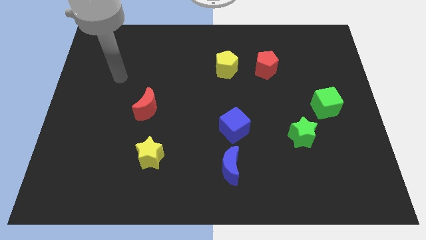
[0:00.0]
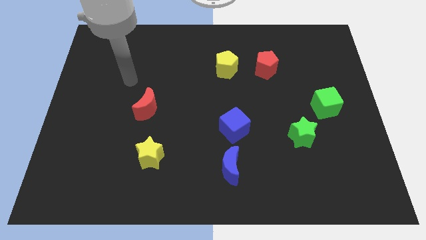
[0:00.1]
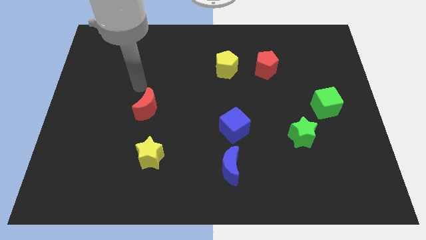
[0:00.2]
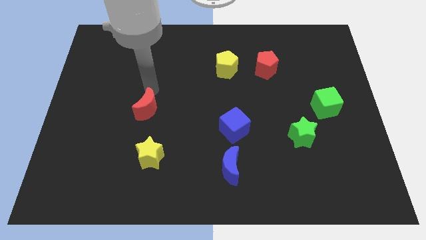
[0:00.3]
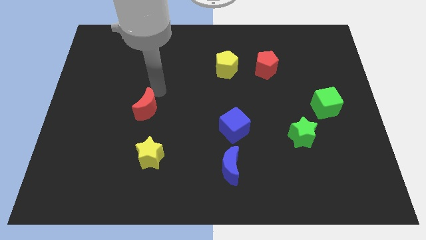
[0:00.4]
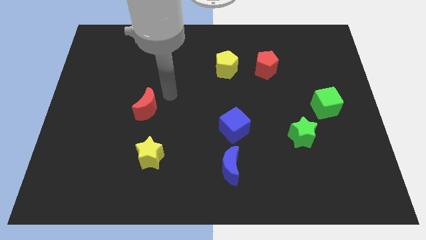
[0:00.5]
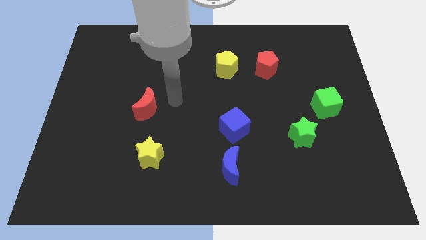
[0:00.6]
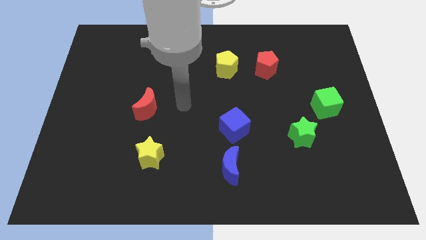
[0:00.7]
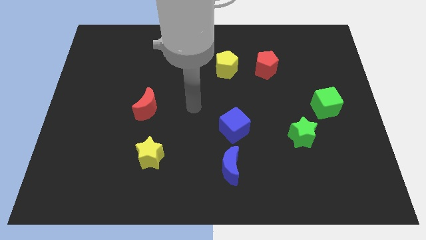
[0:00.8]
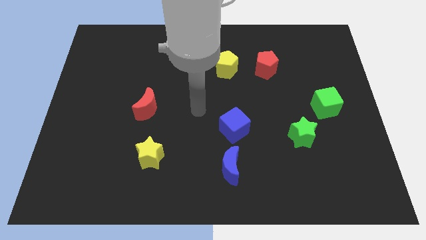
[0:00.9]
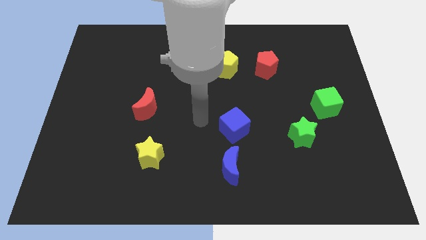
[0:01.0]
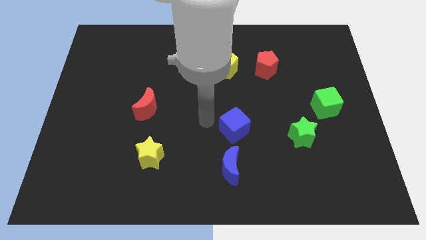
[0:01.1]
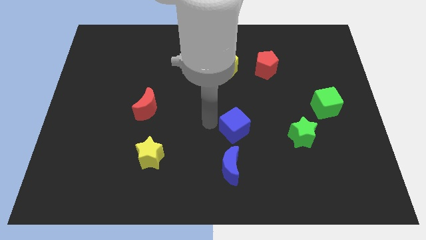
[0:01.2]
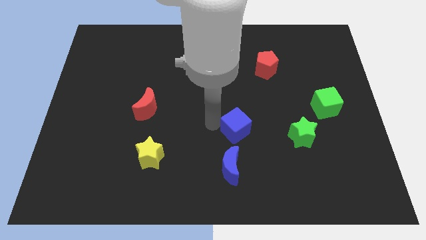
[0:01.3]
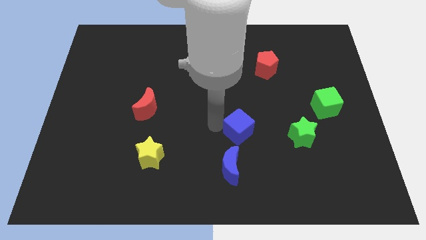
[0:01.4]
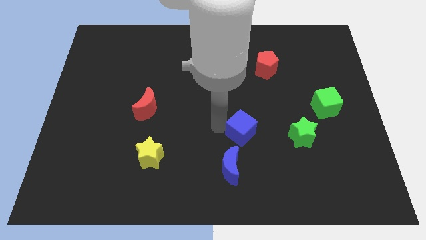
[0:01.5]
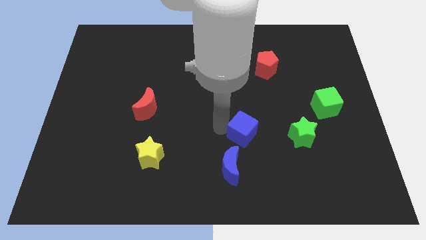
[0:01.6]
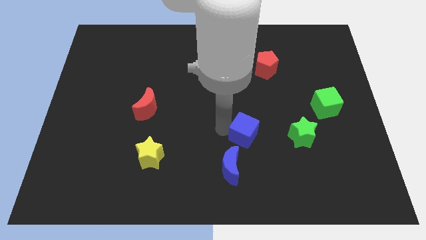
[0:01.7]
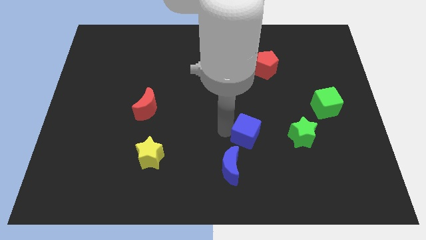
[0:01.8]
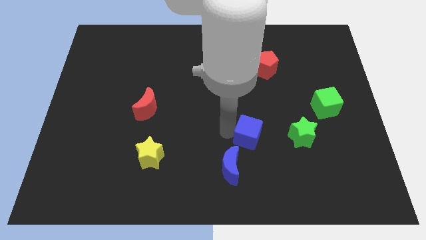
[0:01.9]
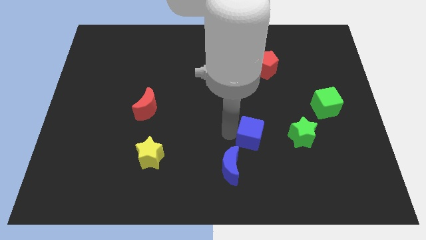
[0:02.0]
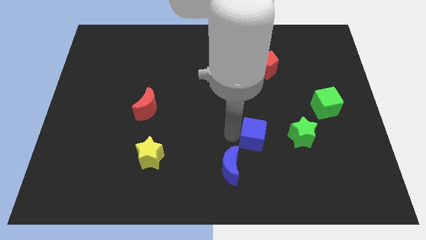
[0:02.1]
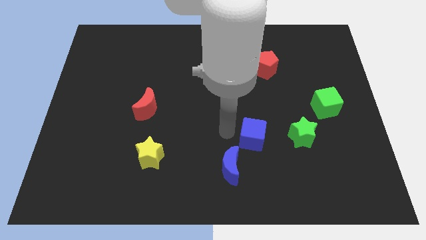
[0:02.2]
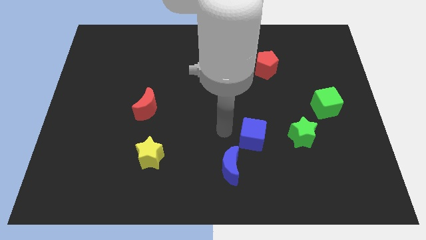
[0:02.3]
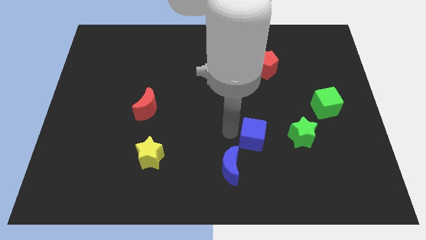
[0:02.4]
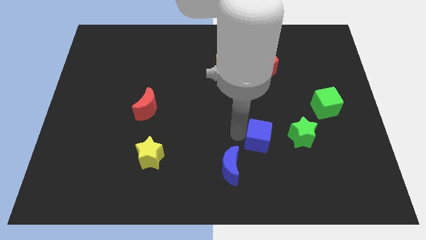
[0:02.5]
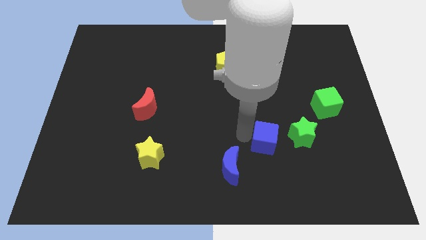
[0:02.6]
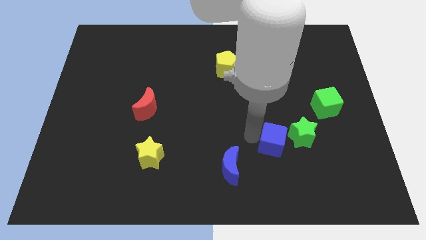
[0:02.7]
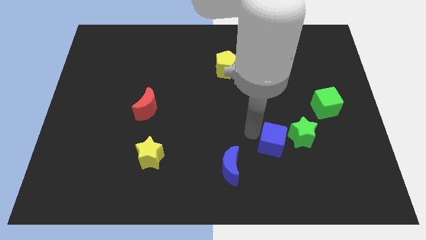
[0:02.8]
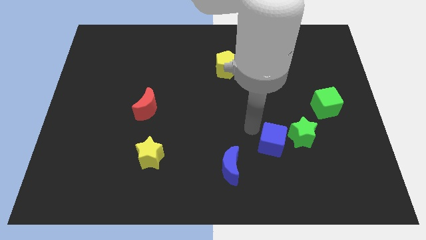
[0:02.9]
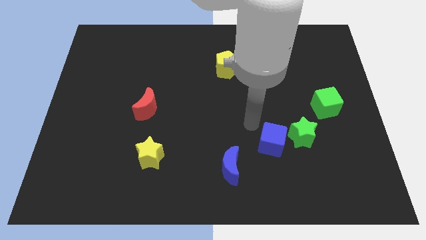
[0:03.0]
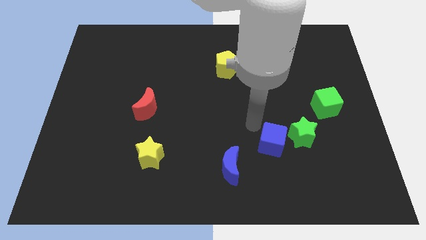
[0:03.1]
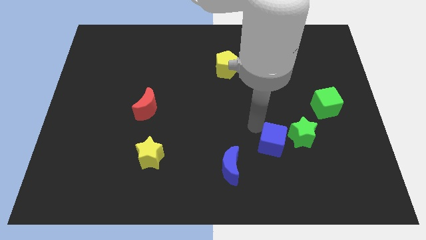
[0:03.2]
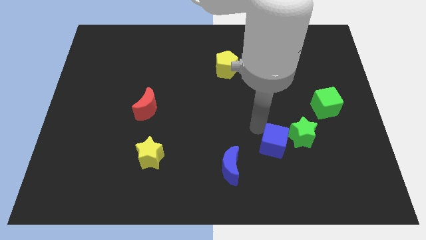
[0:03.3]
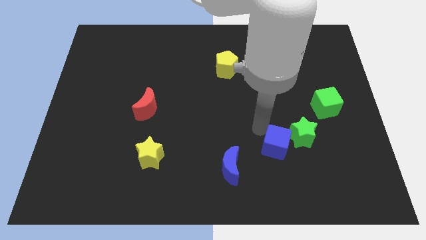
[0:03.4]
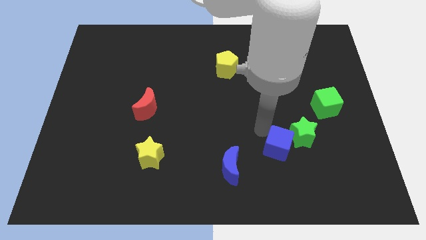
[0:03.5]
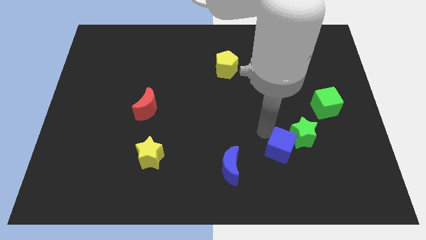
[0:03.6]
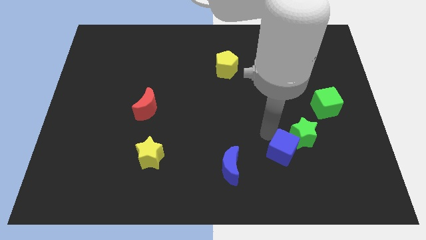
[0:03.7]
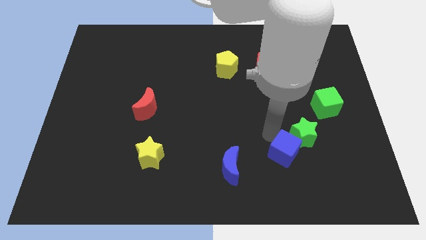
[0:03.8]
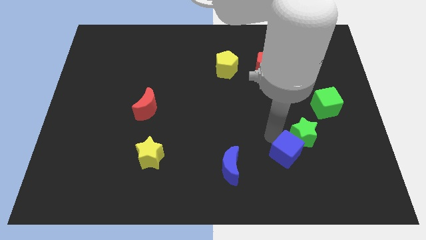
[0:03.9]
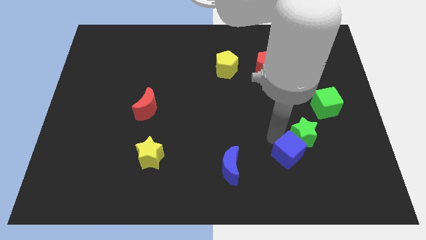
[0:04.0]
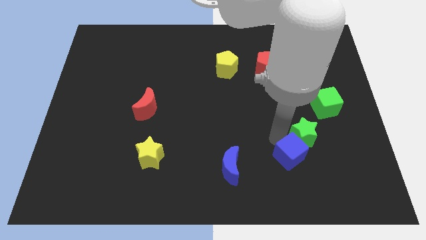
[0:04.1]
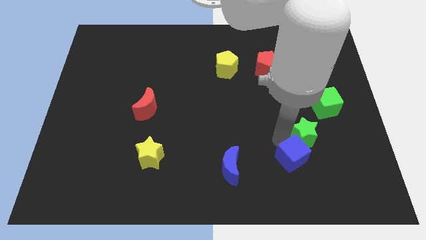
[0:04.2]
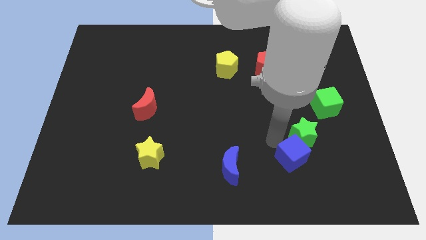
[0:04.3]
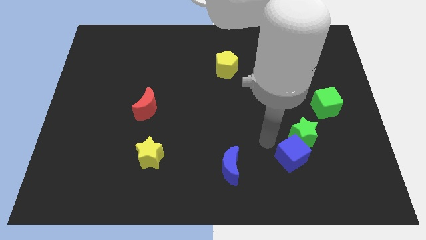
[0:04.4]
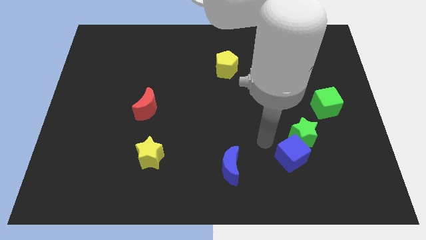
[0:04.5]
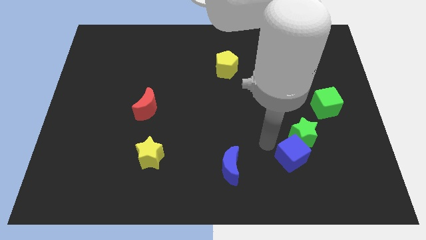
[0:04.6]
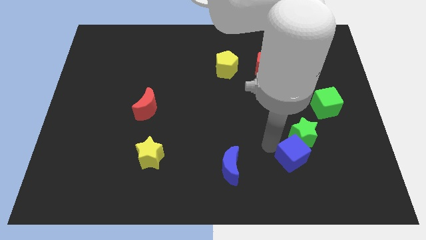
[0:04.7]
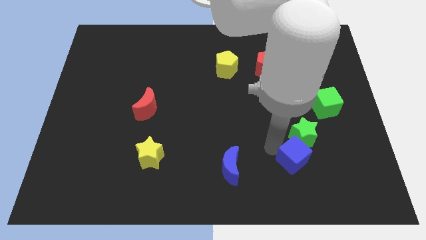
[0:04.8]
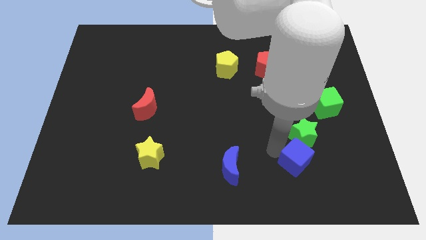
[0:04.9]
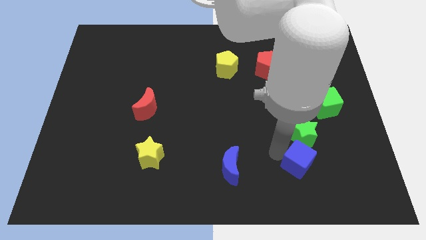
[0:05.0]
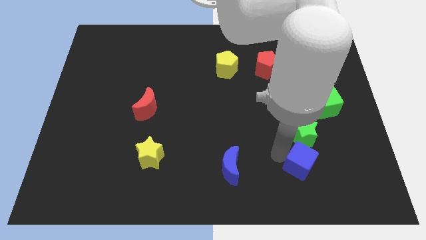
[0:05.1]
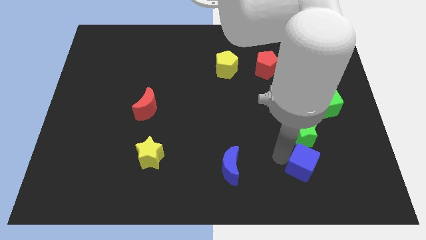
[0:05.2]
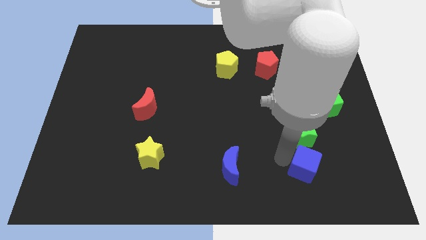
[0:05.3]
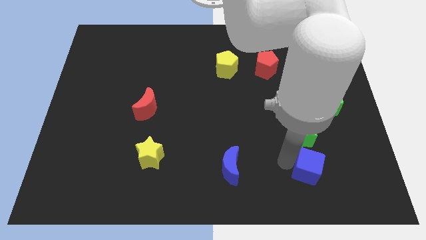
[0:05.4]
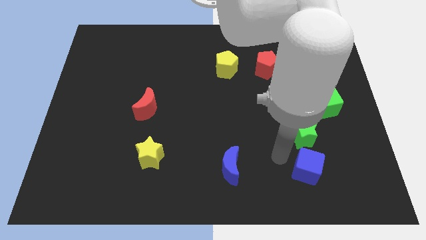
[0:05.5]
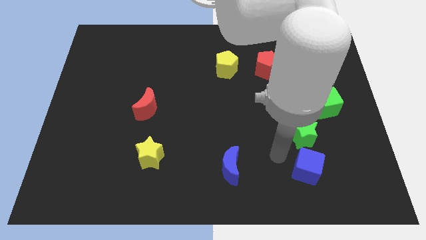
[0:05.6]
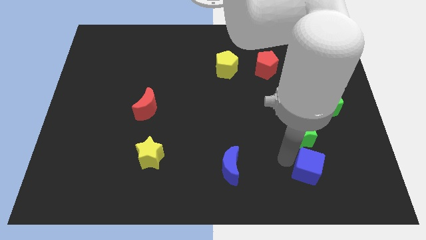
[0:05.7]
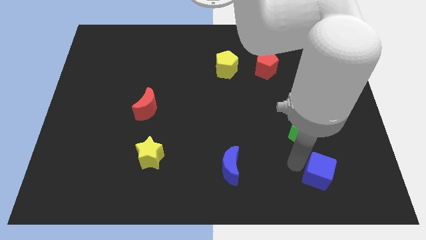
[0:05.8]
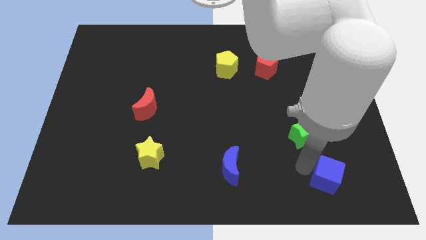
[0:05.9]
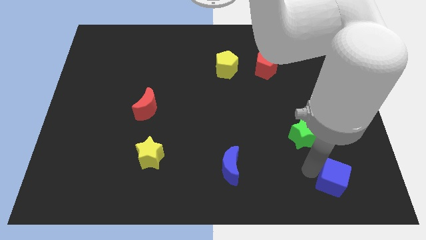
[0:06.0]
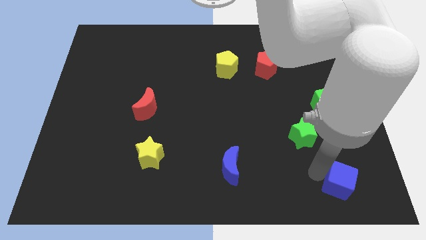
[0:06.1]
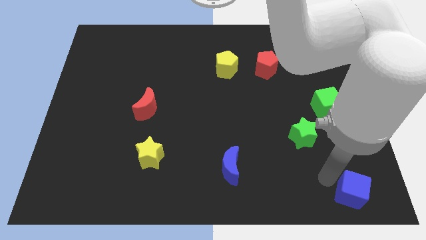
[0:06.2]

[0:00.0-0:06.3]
move the blue cube to the bottom right corner

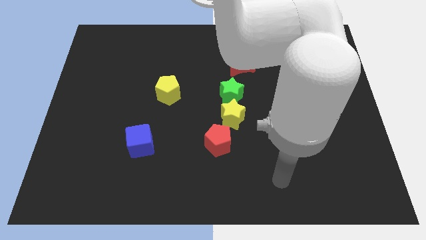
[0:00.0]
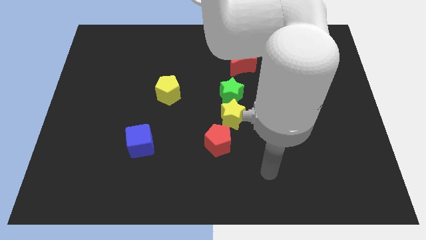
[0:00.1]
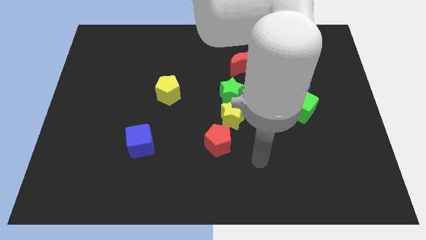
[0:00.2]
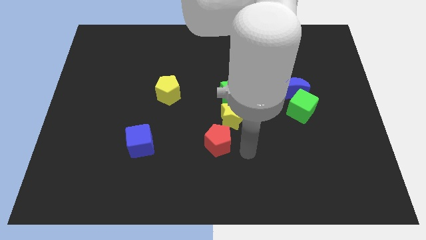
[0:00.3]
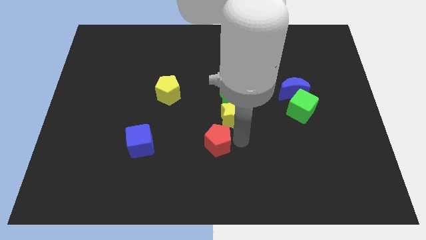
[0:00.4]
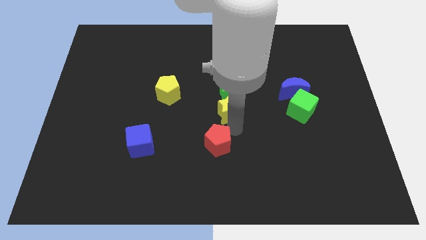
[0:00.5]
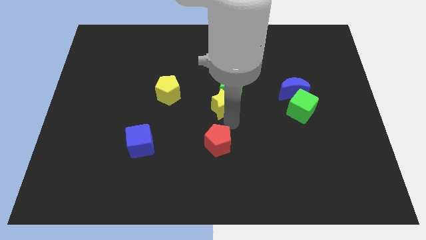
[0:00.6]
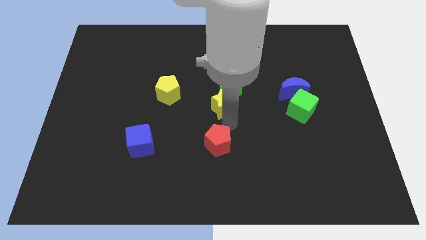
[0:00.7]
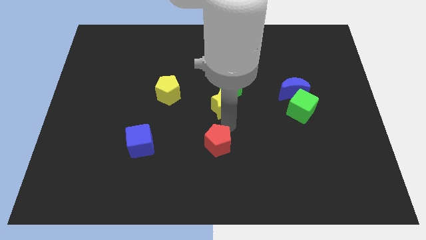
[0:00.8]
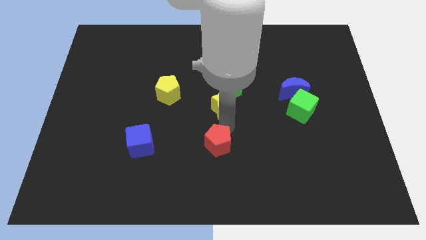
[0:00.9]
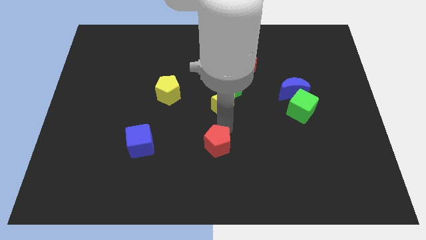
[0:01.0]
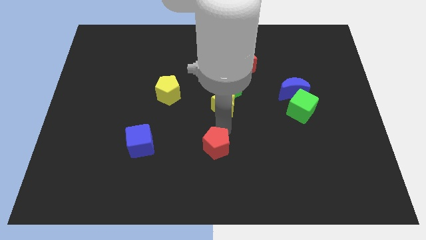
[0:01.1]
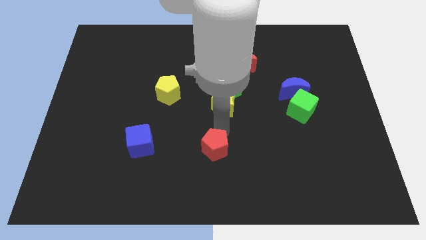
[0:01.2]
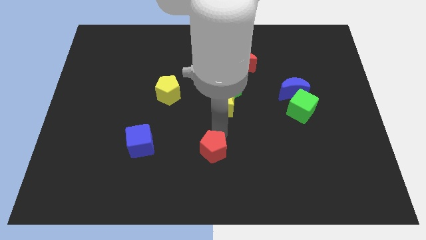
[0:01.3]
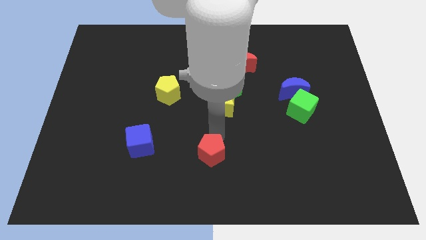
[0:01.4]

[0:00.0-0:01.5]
put the red pentagon to the bottom side
